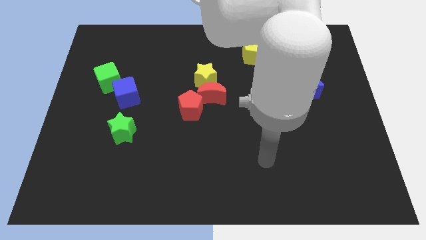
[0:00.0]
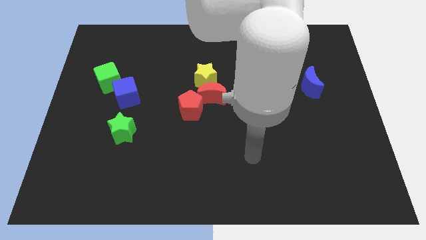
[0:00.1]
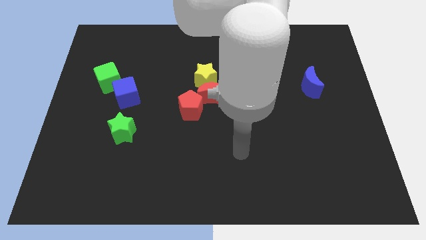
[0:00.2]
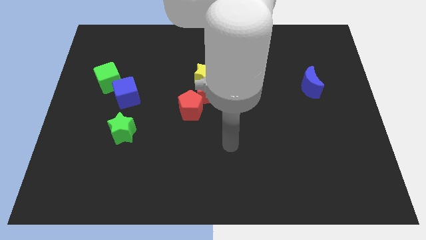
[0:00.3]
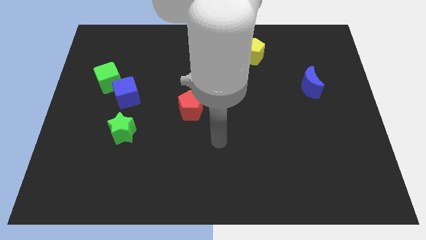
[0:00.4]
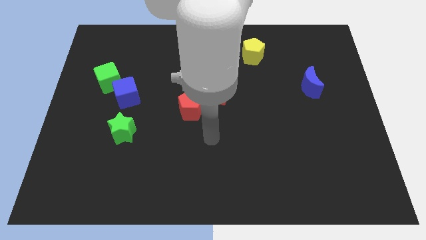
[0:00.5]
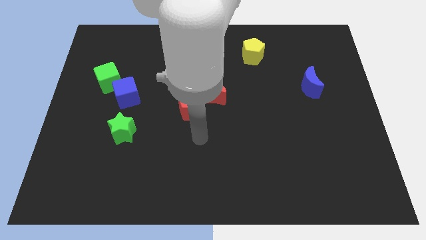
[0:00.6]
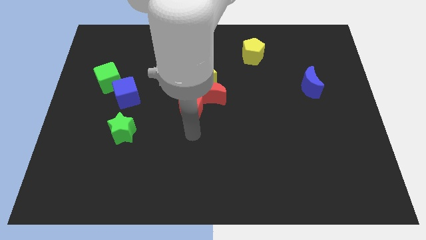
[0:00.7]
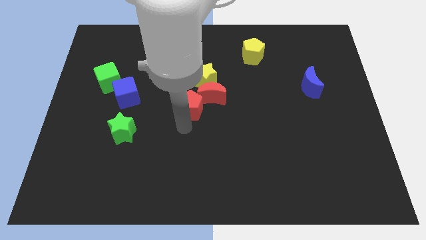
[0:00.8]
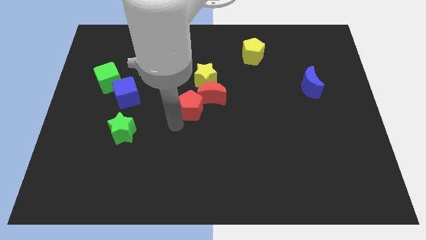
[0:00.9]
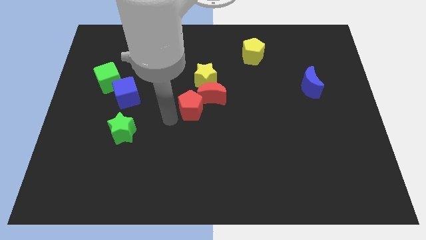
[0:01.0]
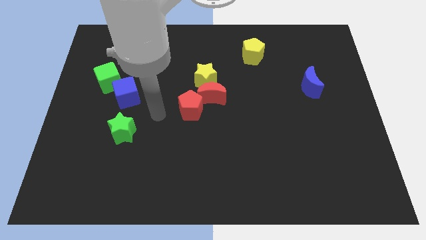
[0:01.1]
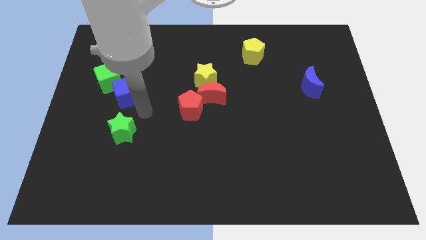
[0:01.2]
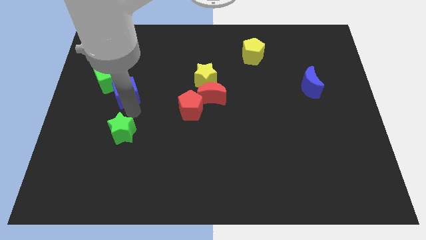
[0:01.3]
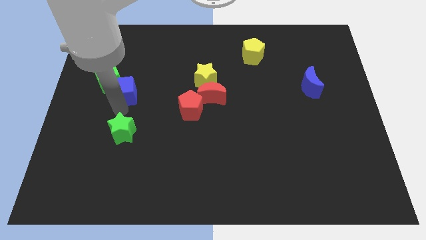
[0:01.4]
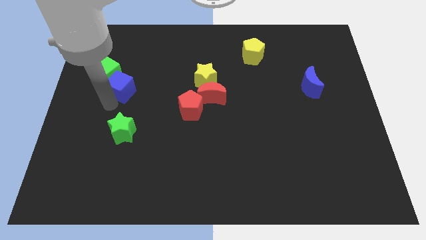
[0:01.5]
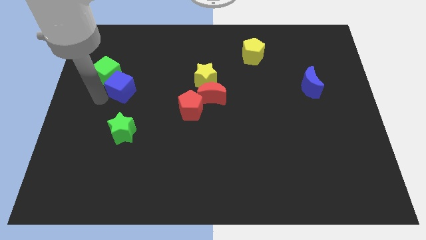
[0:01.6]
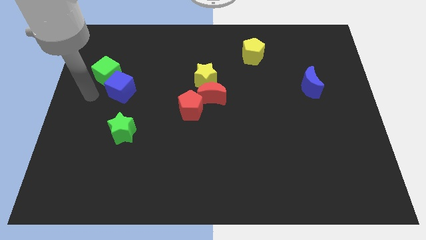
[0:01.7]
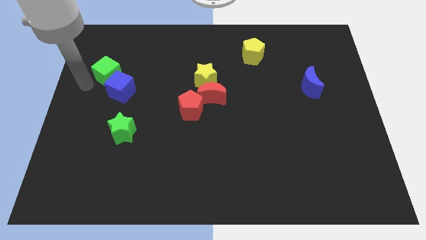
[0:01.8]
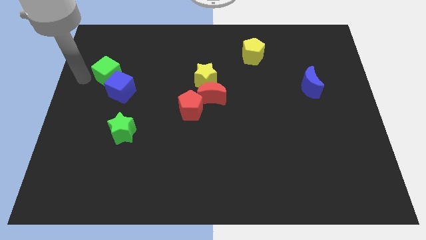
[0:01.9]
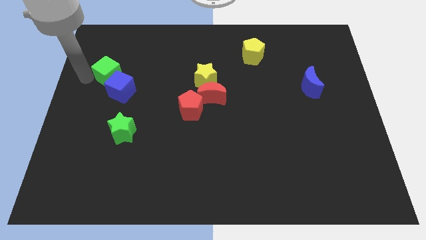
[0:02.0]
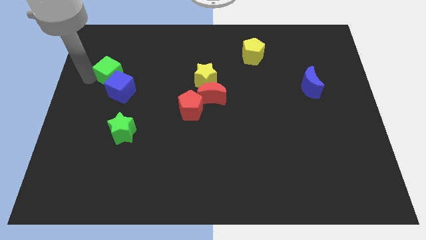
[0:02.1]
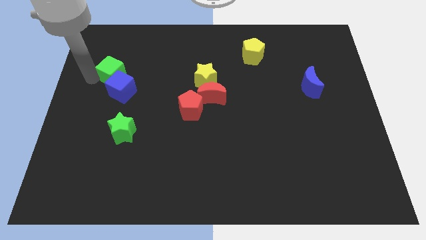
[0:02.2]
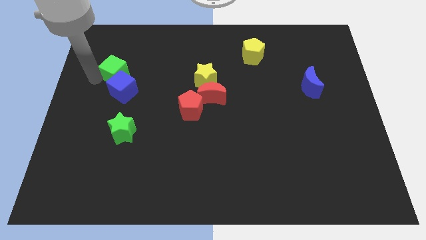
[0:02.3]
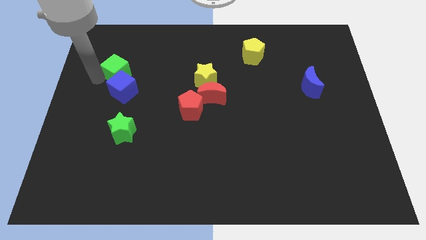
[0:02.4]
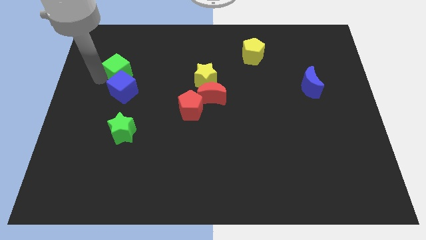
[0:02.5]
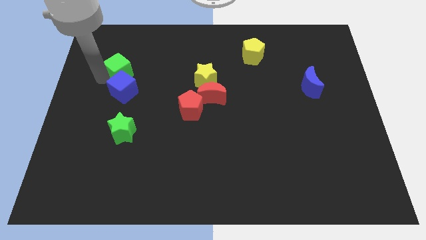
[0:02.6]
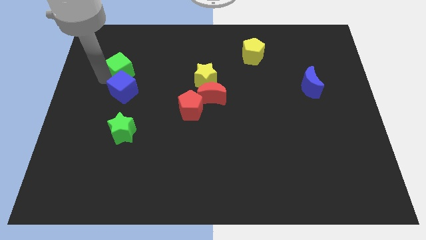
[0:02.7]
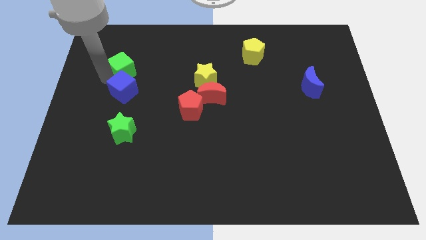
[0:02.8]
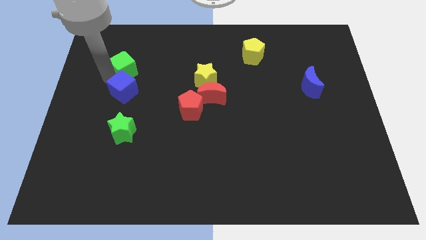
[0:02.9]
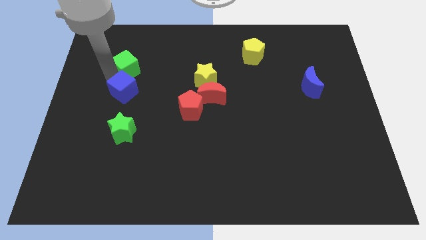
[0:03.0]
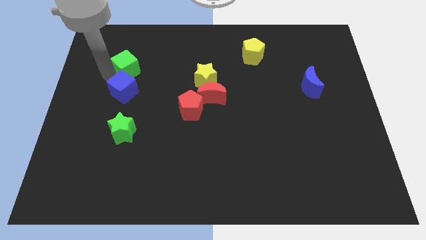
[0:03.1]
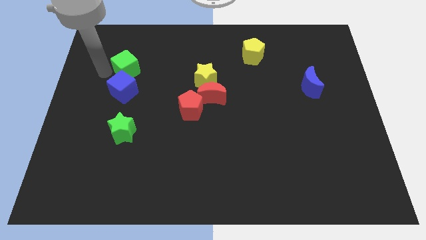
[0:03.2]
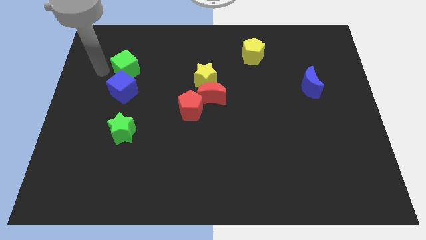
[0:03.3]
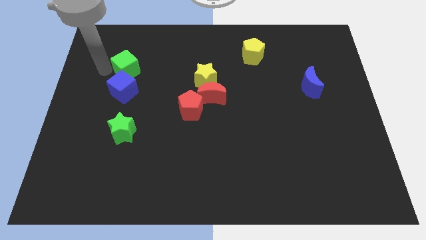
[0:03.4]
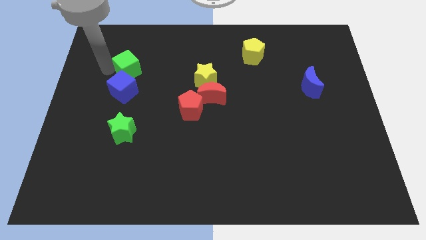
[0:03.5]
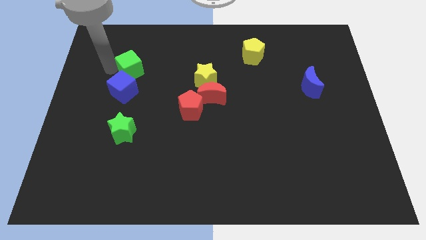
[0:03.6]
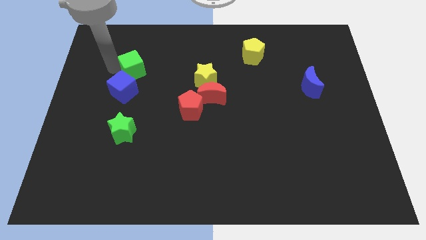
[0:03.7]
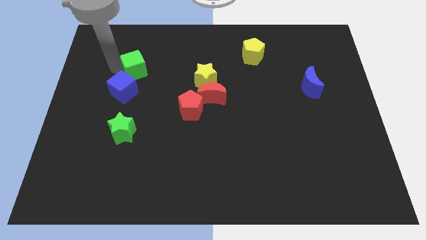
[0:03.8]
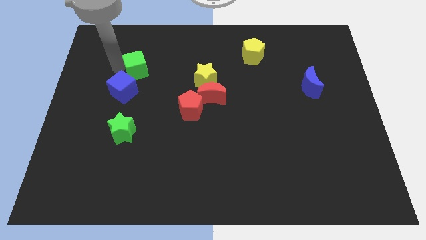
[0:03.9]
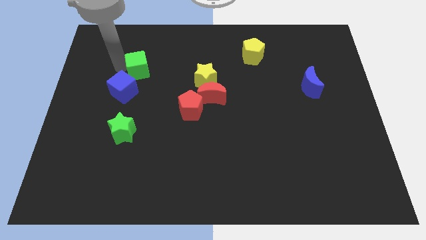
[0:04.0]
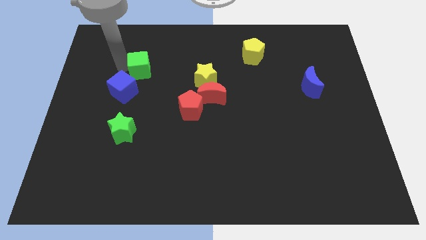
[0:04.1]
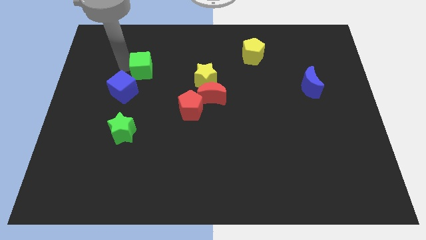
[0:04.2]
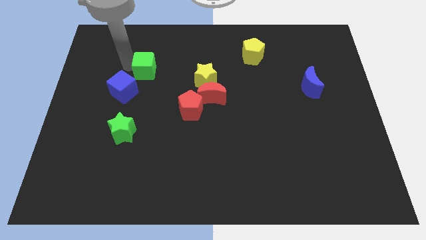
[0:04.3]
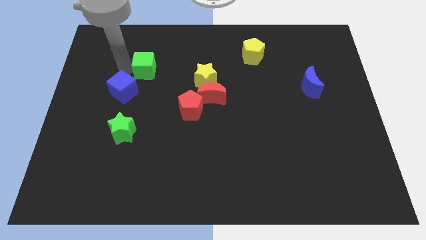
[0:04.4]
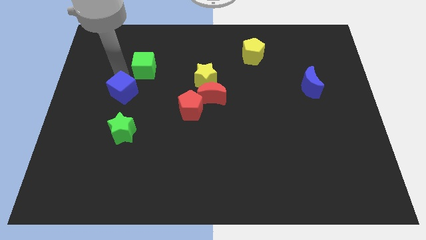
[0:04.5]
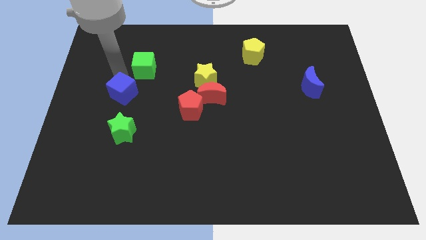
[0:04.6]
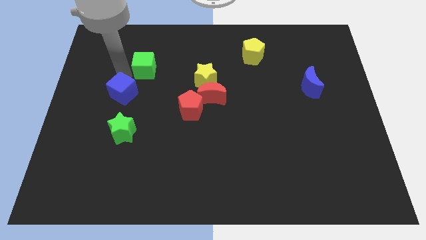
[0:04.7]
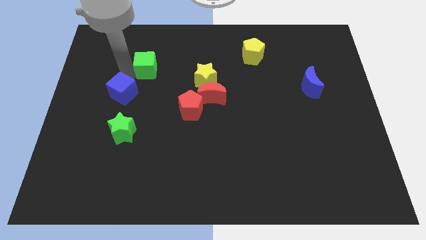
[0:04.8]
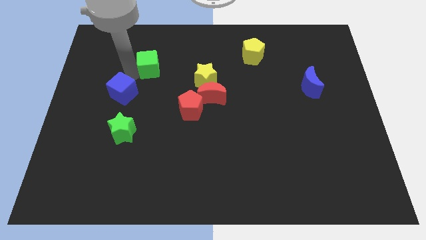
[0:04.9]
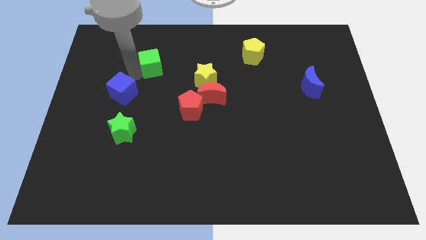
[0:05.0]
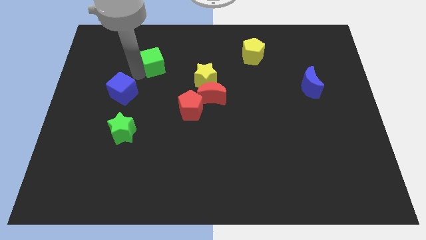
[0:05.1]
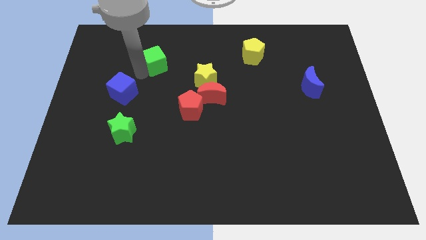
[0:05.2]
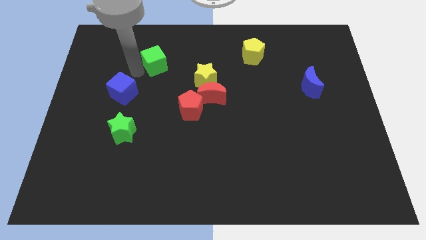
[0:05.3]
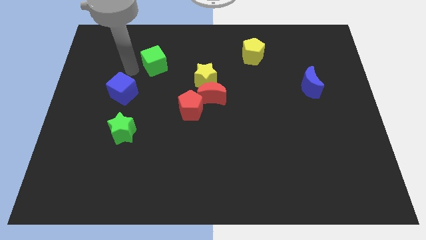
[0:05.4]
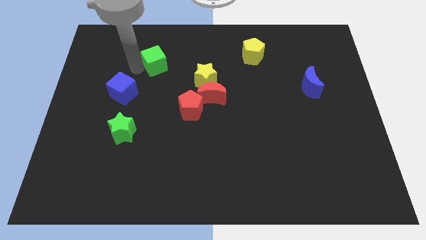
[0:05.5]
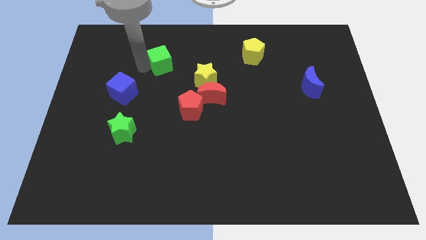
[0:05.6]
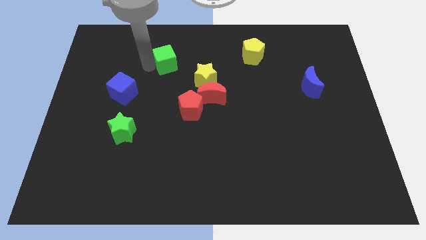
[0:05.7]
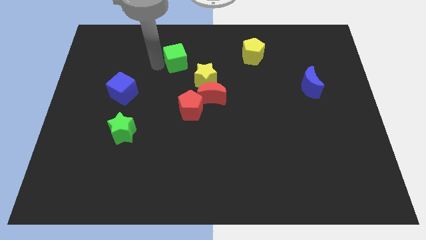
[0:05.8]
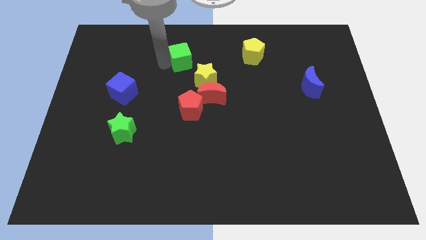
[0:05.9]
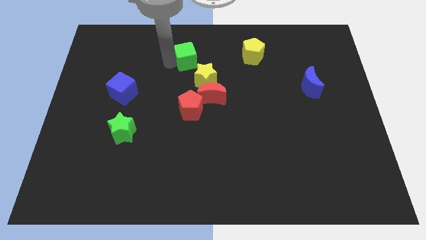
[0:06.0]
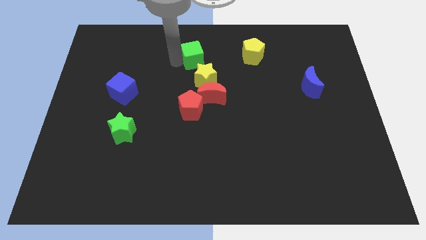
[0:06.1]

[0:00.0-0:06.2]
slide the green cube just left of the yellow pentagon

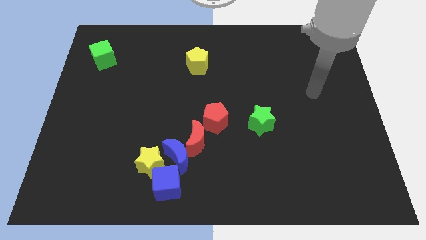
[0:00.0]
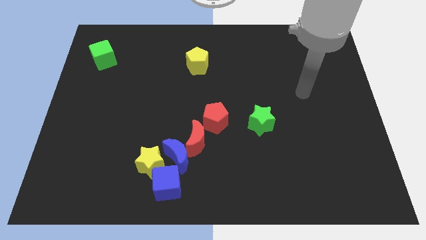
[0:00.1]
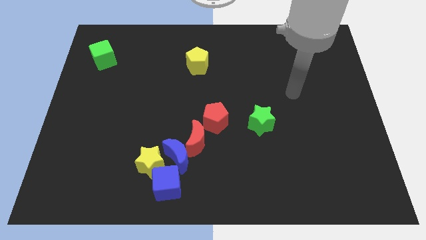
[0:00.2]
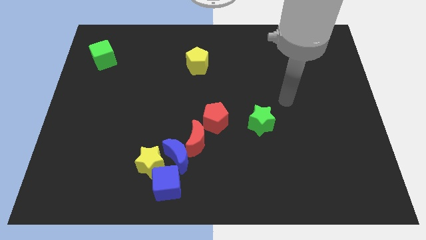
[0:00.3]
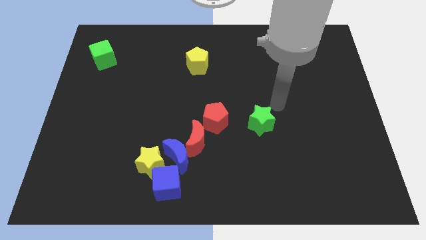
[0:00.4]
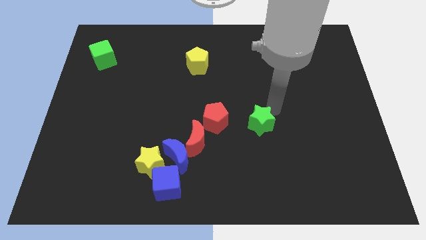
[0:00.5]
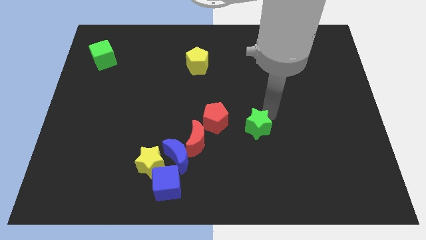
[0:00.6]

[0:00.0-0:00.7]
put the green star right of the red moon
